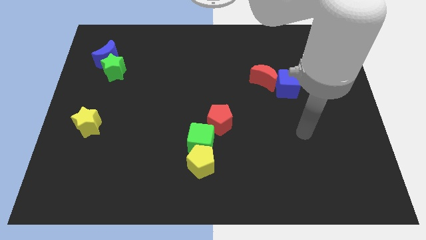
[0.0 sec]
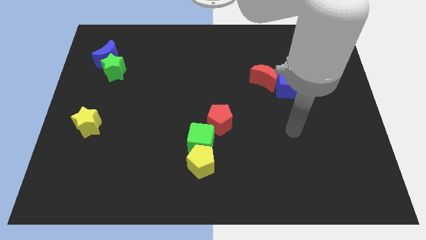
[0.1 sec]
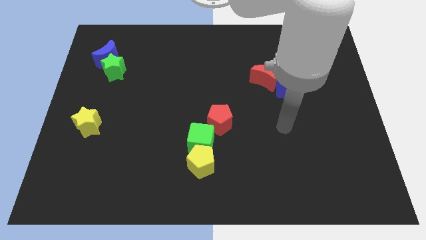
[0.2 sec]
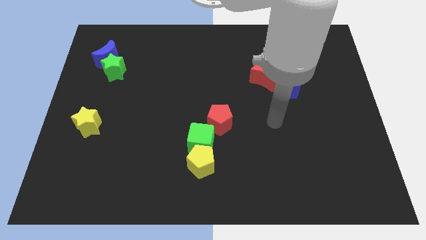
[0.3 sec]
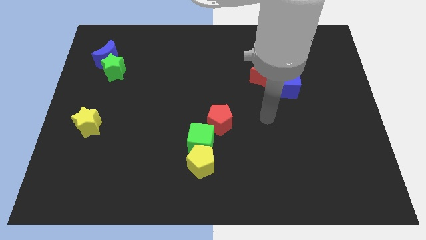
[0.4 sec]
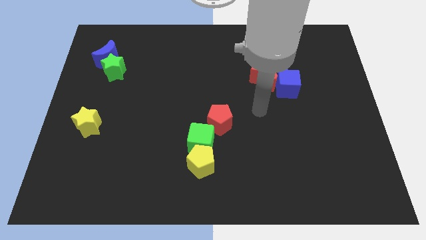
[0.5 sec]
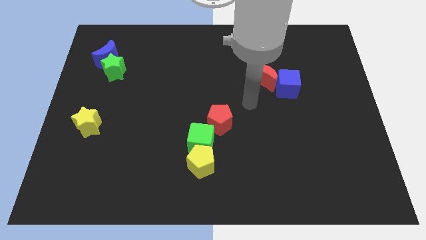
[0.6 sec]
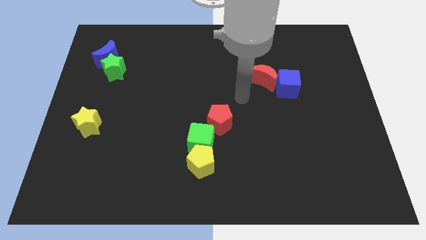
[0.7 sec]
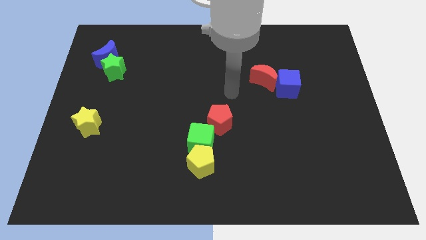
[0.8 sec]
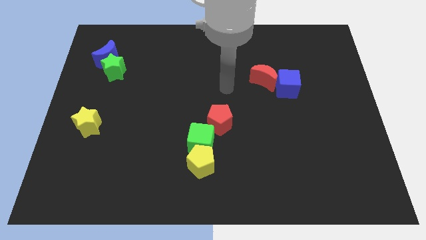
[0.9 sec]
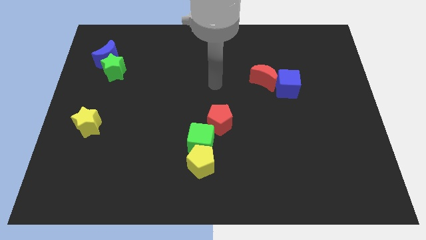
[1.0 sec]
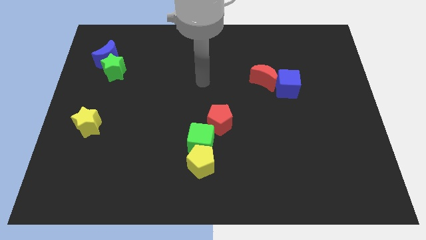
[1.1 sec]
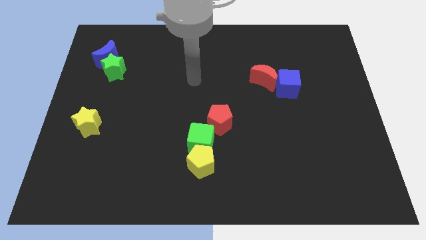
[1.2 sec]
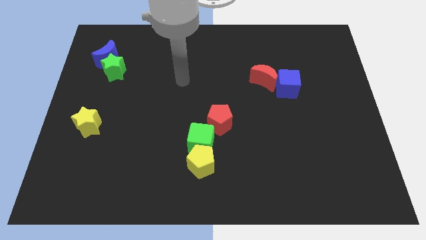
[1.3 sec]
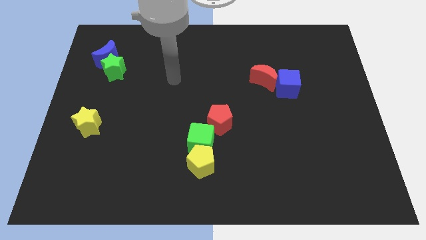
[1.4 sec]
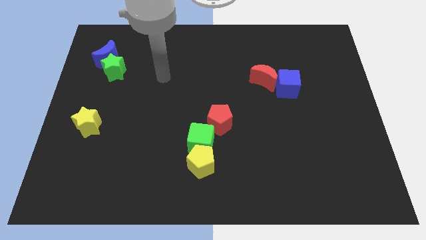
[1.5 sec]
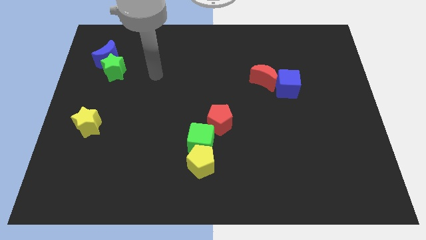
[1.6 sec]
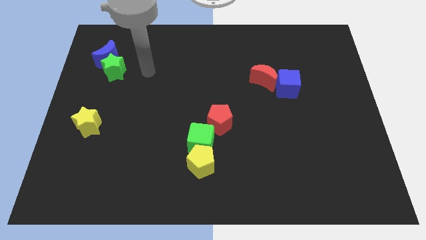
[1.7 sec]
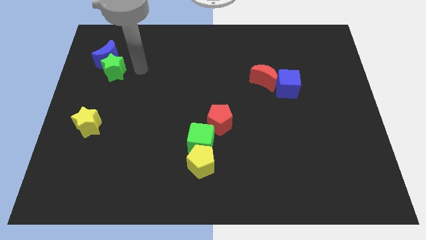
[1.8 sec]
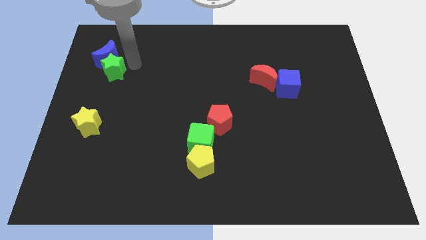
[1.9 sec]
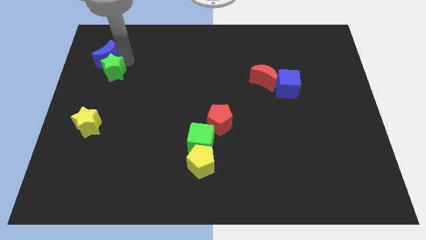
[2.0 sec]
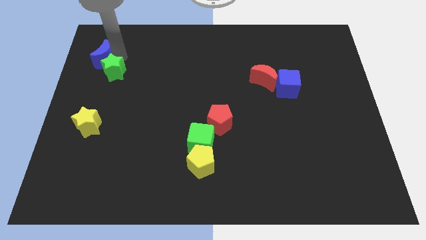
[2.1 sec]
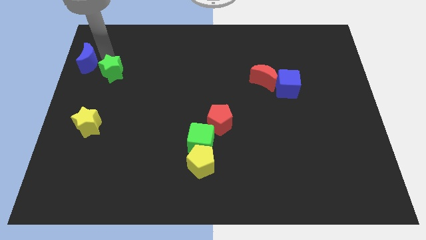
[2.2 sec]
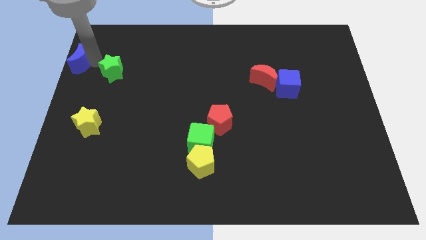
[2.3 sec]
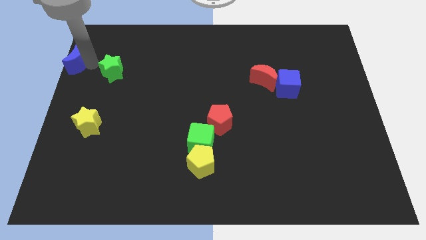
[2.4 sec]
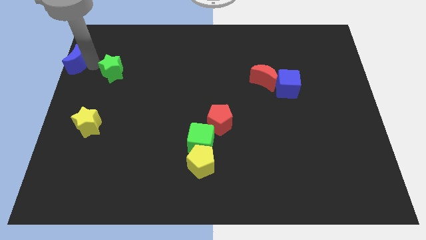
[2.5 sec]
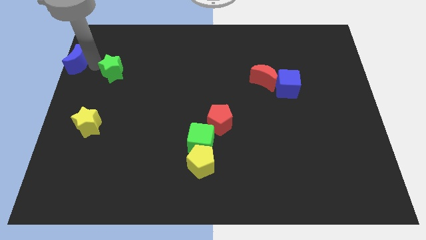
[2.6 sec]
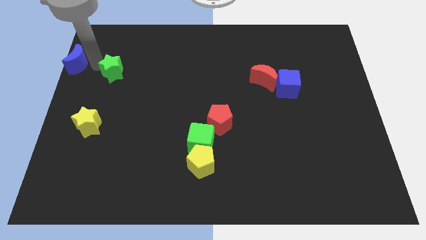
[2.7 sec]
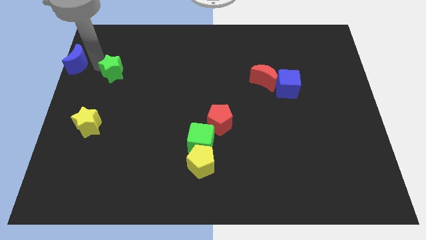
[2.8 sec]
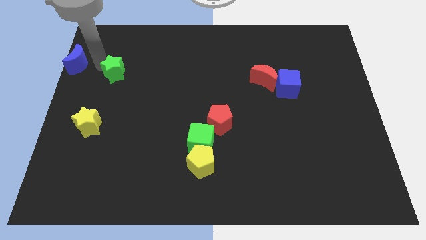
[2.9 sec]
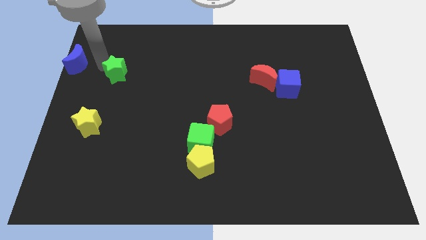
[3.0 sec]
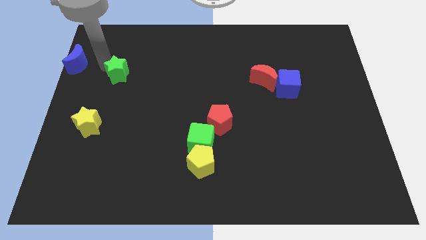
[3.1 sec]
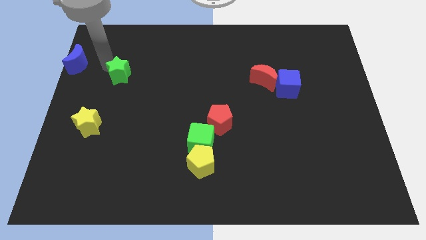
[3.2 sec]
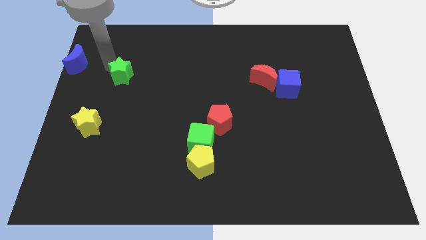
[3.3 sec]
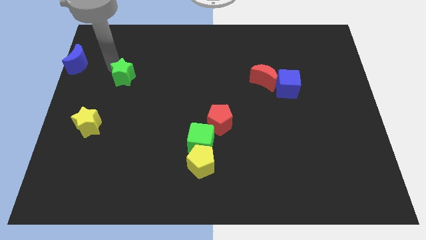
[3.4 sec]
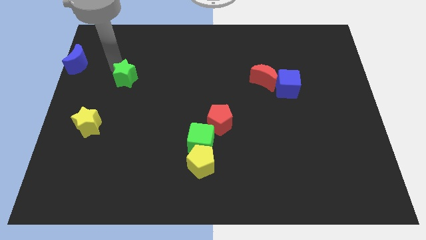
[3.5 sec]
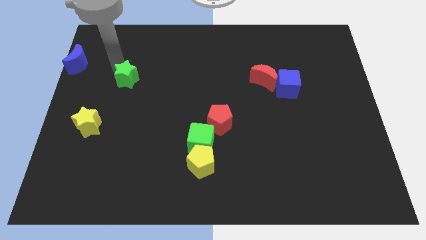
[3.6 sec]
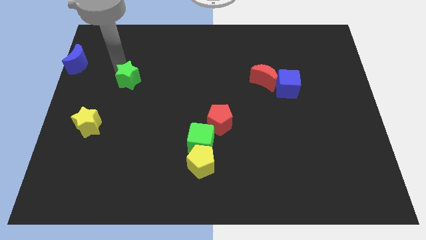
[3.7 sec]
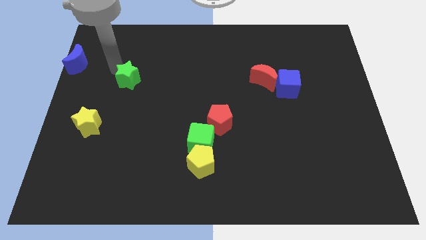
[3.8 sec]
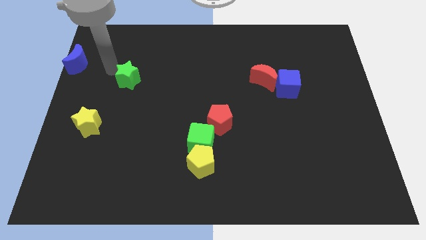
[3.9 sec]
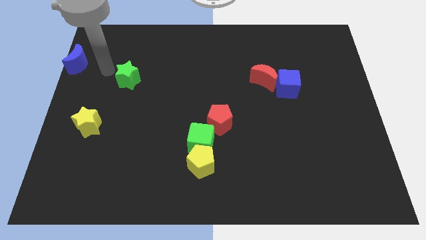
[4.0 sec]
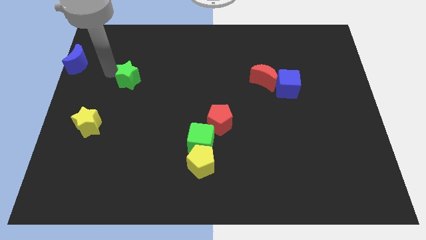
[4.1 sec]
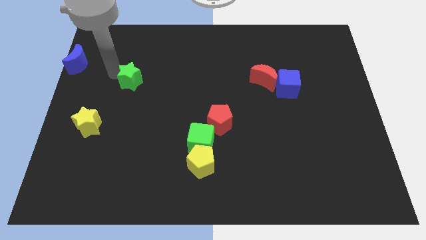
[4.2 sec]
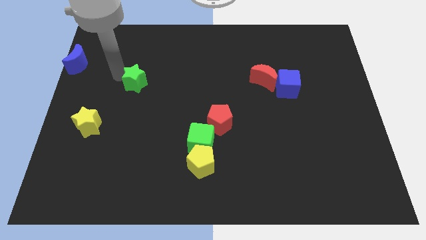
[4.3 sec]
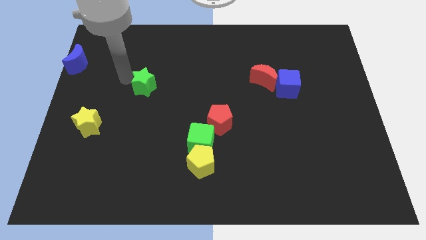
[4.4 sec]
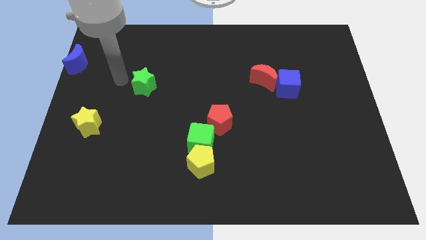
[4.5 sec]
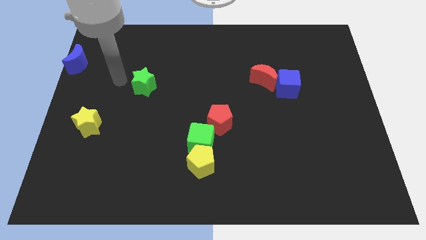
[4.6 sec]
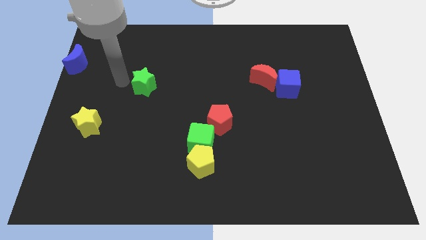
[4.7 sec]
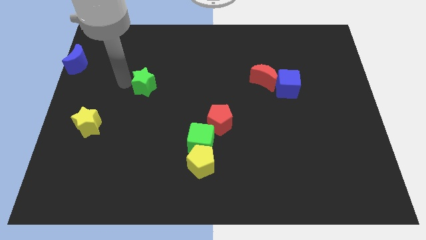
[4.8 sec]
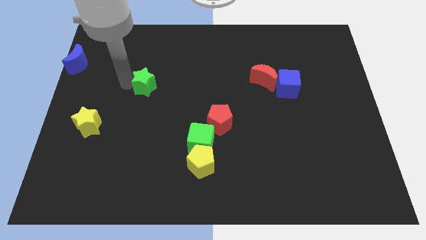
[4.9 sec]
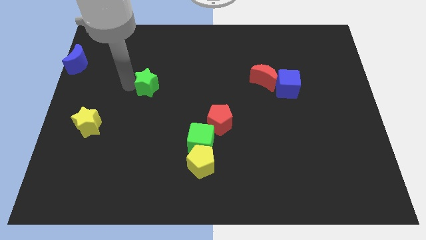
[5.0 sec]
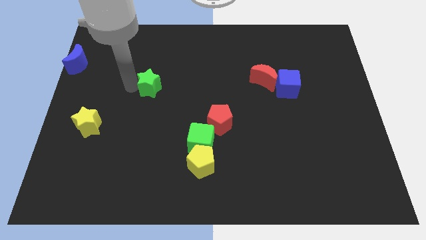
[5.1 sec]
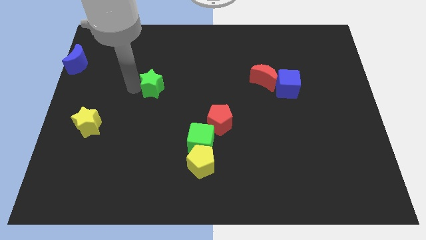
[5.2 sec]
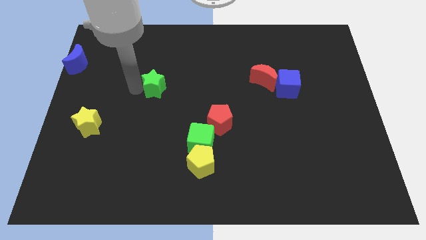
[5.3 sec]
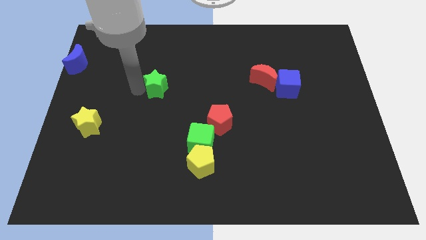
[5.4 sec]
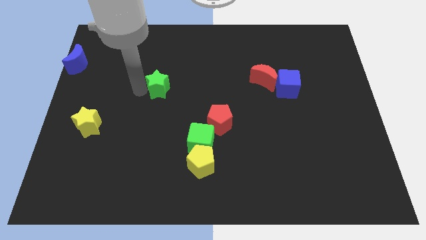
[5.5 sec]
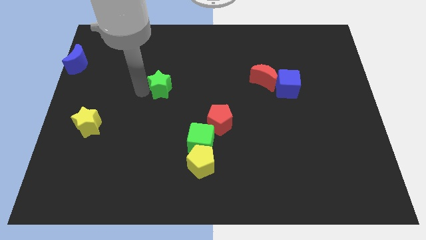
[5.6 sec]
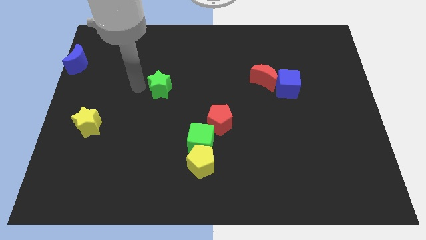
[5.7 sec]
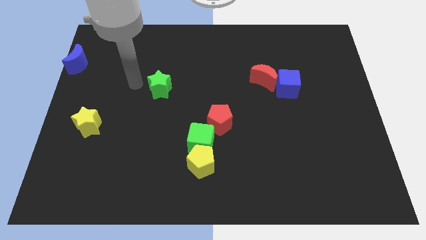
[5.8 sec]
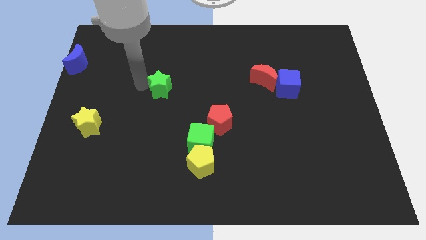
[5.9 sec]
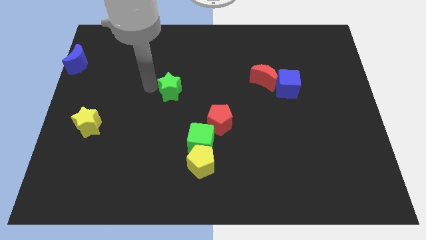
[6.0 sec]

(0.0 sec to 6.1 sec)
move the green star to the center of the board

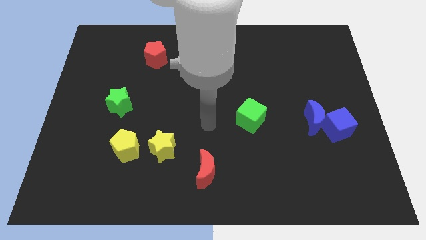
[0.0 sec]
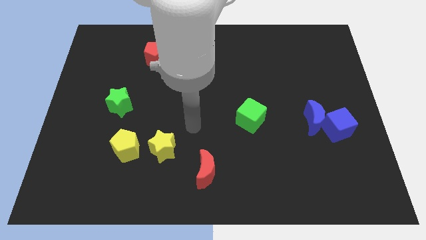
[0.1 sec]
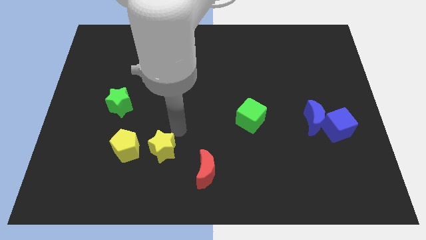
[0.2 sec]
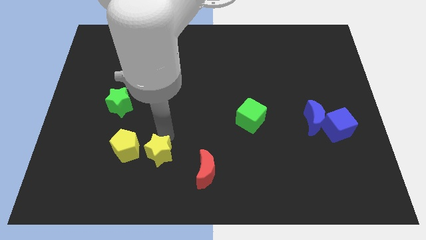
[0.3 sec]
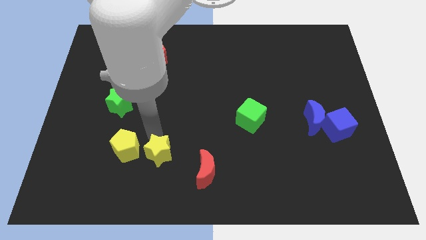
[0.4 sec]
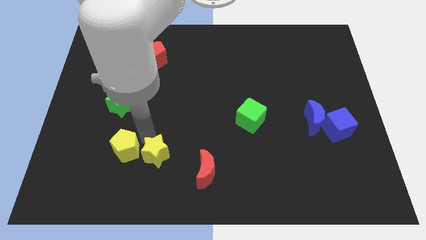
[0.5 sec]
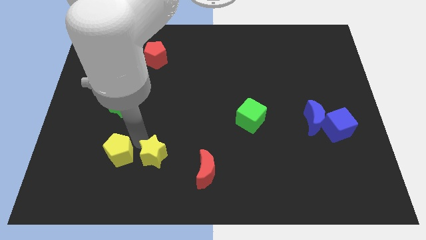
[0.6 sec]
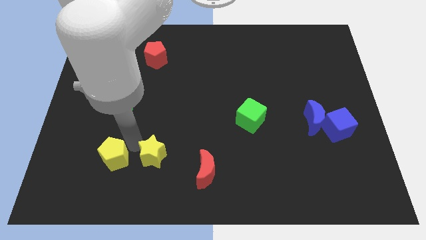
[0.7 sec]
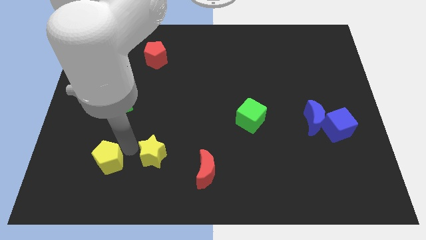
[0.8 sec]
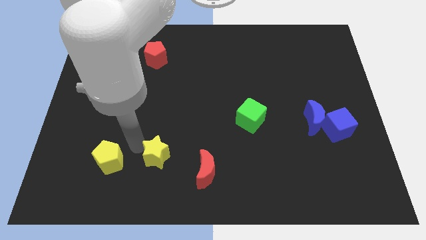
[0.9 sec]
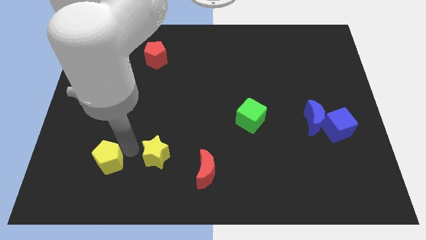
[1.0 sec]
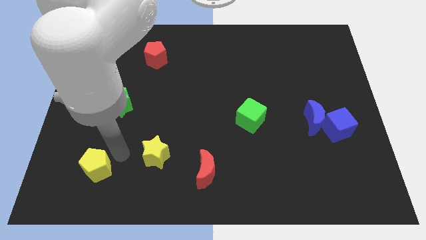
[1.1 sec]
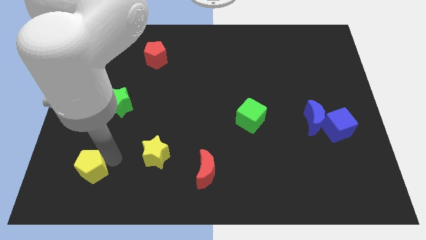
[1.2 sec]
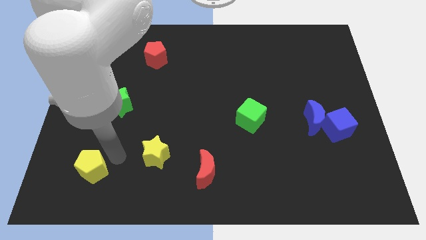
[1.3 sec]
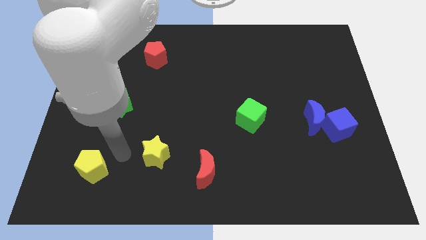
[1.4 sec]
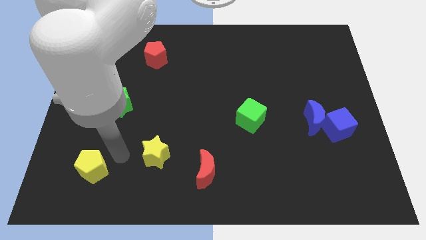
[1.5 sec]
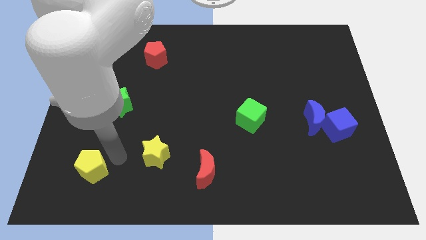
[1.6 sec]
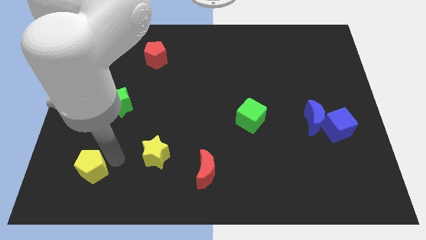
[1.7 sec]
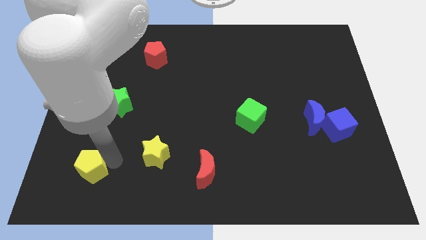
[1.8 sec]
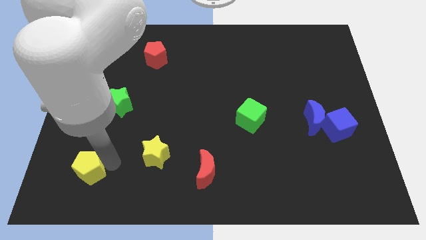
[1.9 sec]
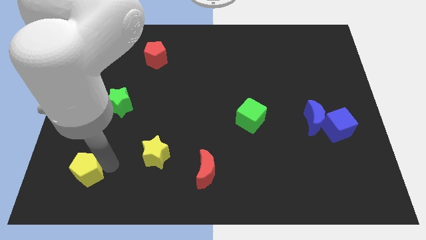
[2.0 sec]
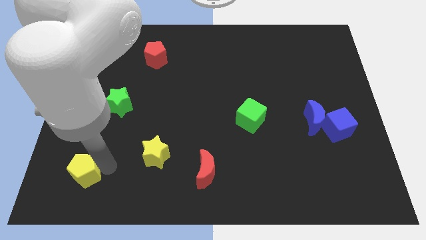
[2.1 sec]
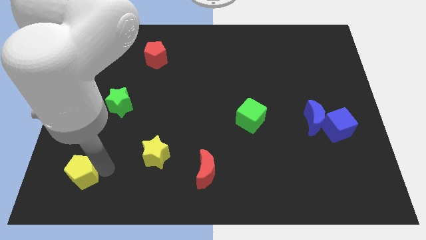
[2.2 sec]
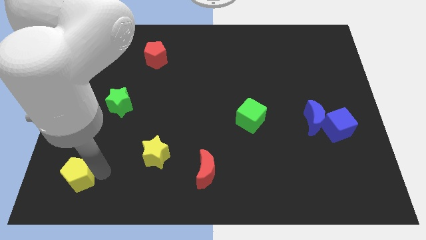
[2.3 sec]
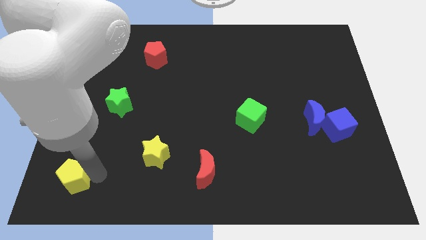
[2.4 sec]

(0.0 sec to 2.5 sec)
move the yellow pentagon to the bottom left
